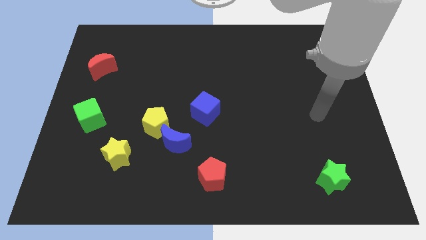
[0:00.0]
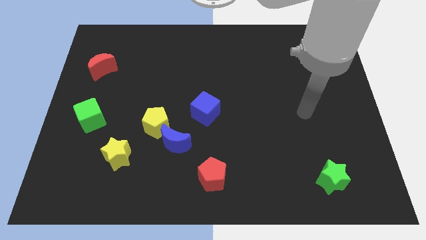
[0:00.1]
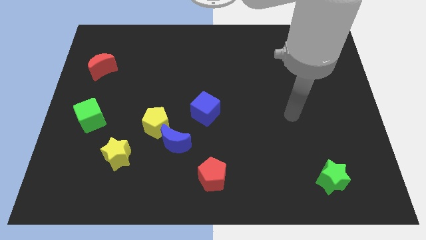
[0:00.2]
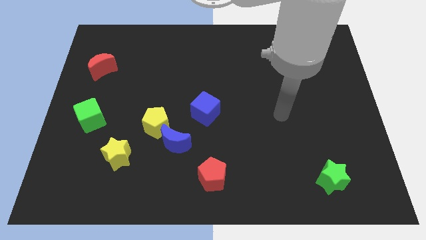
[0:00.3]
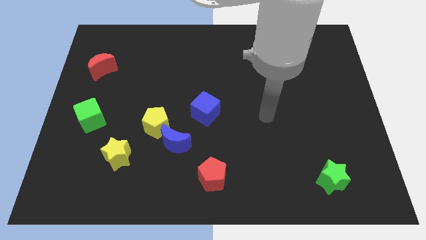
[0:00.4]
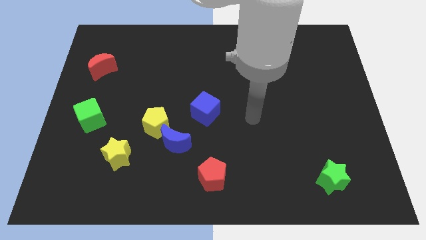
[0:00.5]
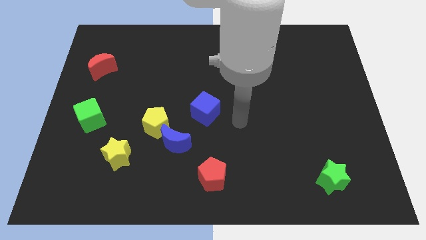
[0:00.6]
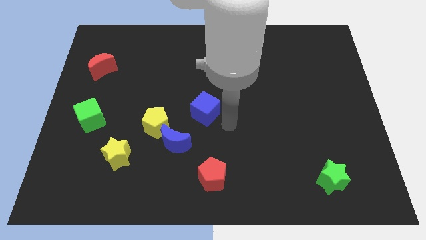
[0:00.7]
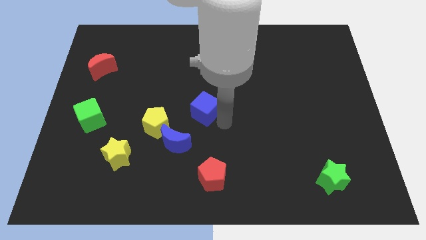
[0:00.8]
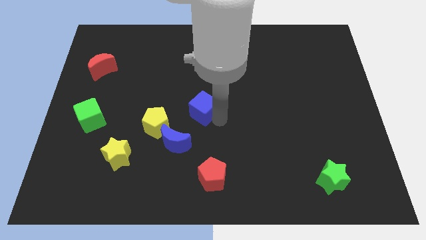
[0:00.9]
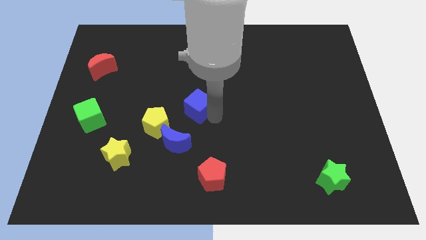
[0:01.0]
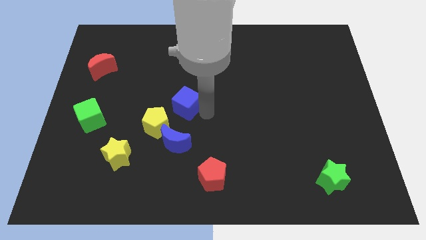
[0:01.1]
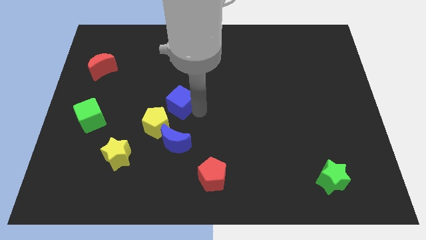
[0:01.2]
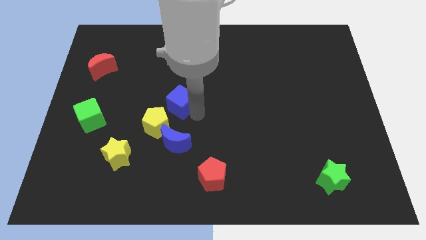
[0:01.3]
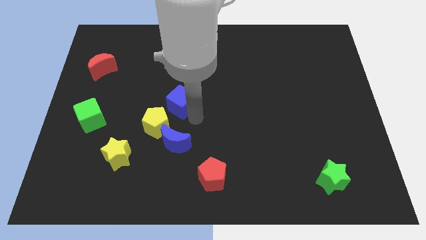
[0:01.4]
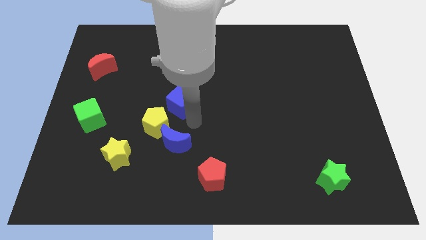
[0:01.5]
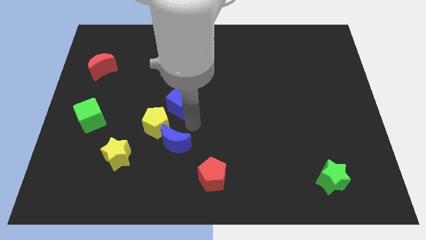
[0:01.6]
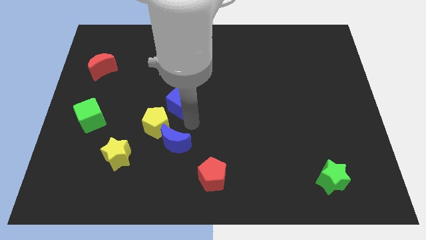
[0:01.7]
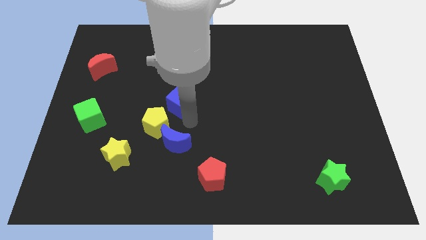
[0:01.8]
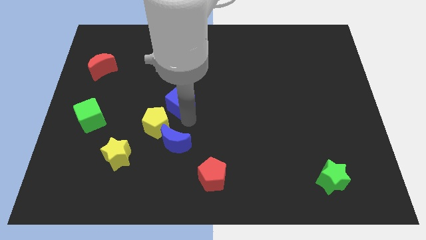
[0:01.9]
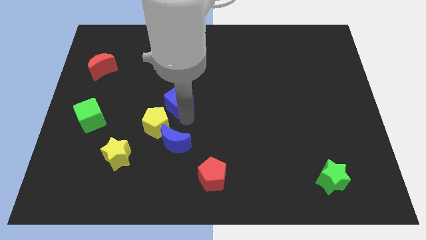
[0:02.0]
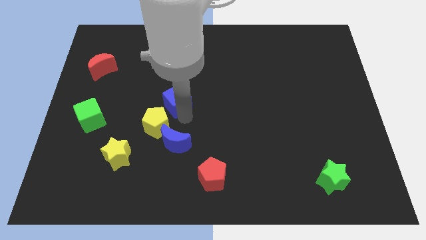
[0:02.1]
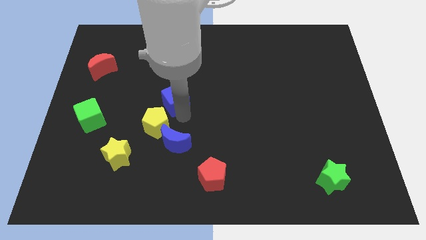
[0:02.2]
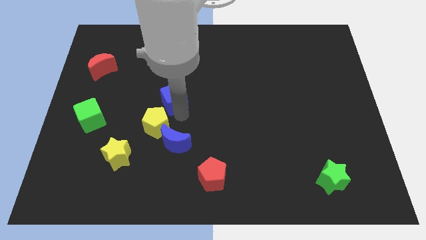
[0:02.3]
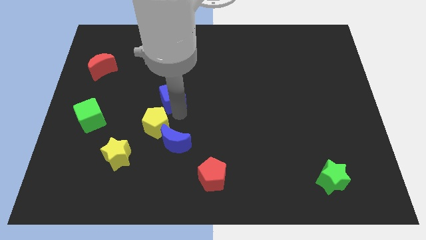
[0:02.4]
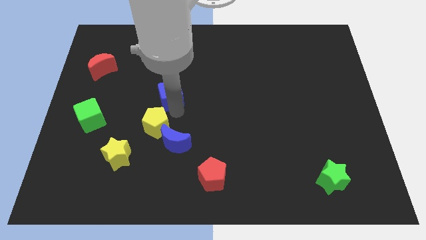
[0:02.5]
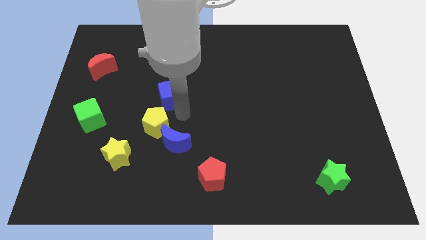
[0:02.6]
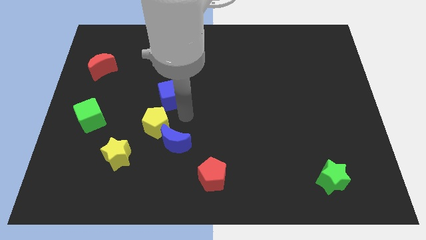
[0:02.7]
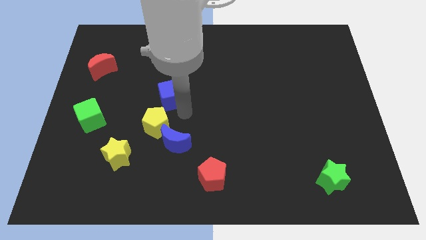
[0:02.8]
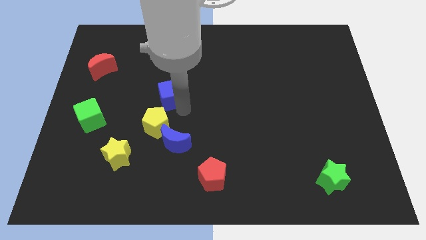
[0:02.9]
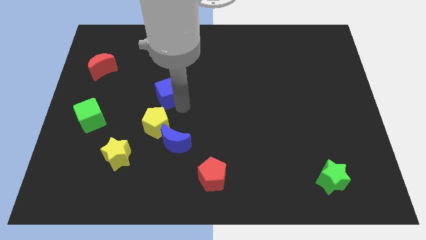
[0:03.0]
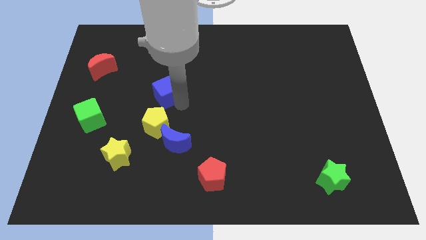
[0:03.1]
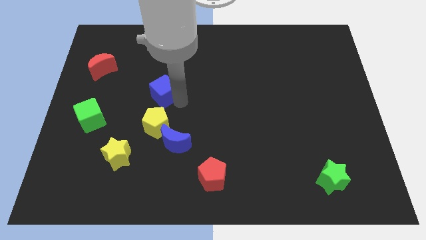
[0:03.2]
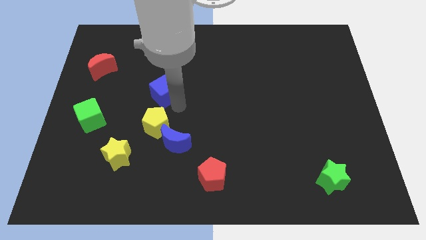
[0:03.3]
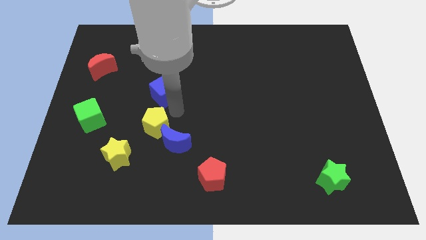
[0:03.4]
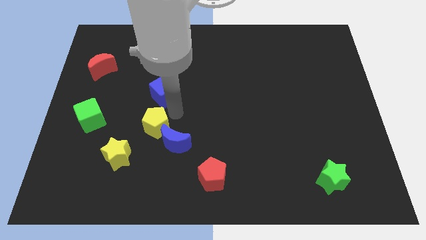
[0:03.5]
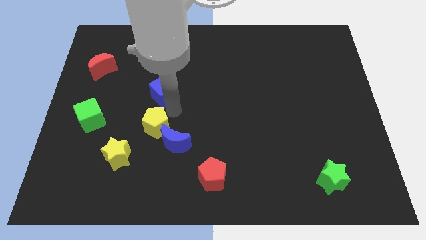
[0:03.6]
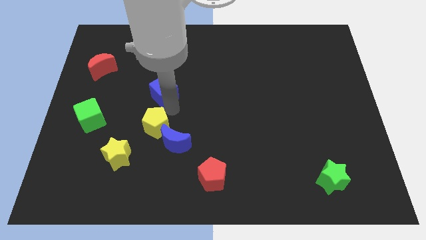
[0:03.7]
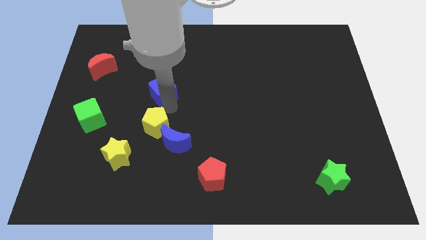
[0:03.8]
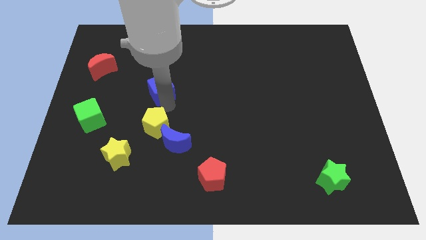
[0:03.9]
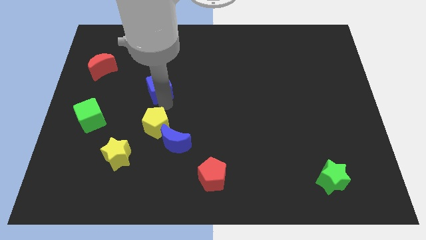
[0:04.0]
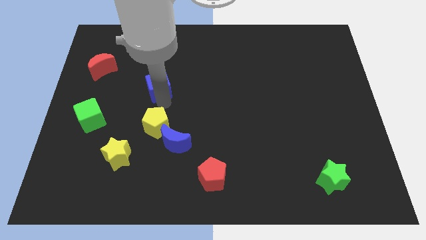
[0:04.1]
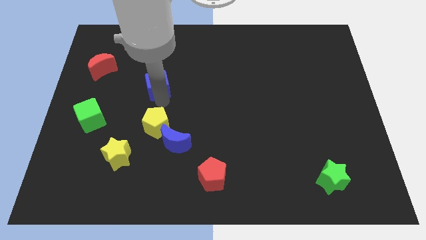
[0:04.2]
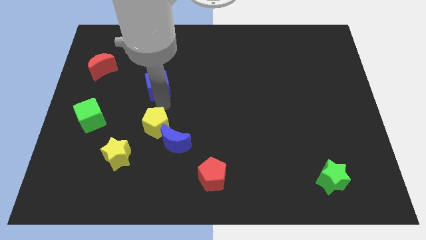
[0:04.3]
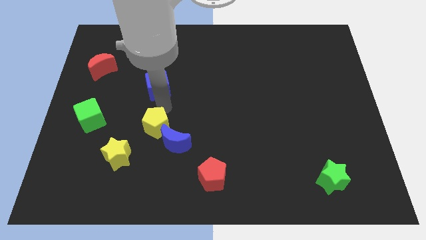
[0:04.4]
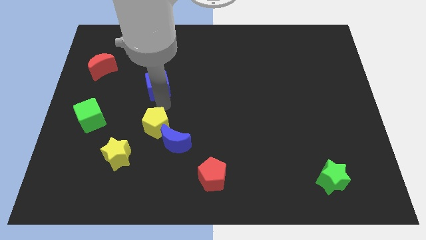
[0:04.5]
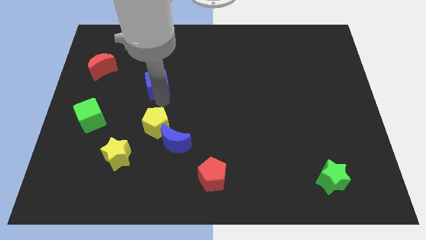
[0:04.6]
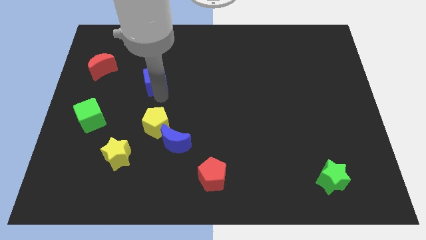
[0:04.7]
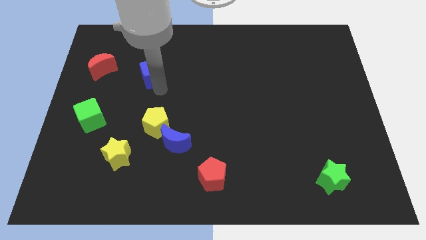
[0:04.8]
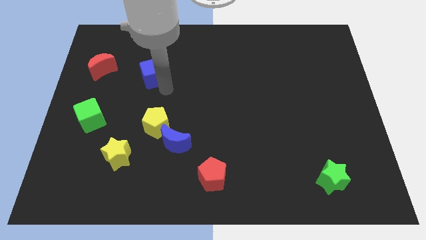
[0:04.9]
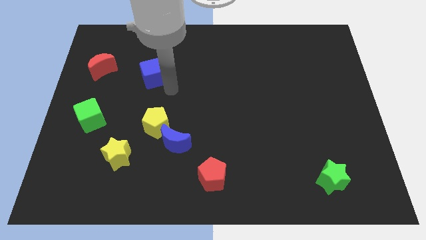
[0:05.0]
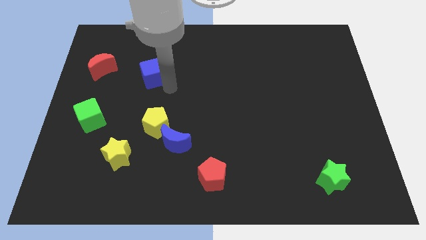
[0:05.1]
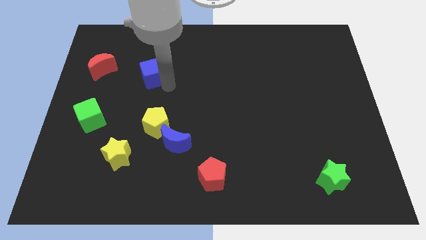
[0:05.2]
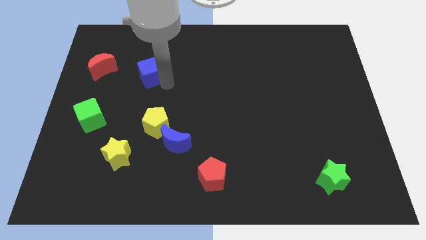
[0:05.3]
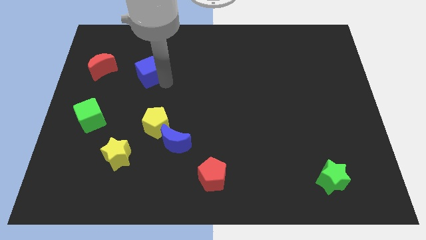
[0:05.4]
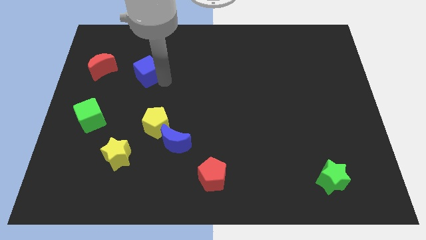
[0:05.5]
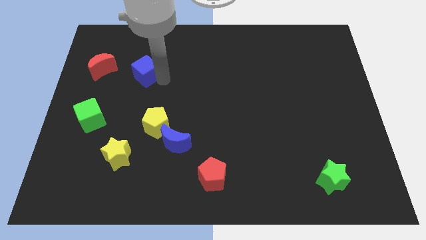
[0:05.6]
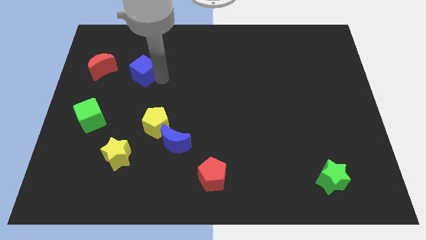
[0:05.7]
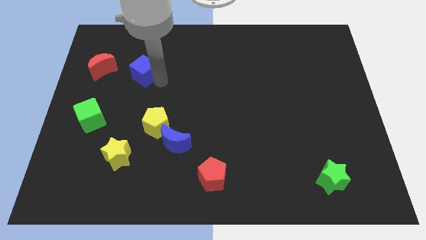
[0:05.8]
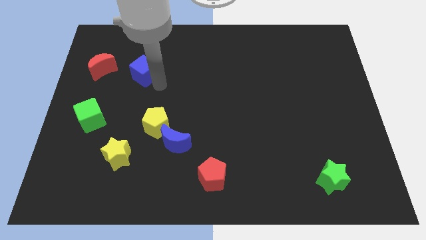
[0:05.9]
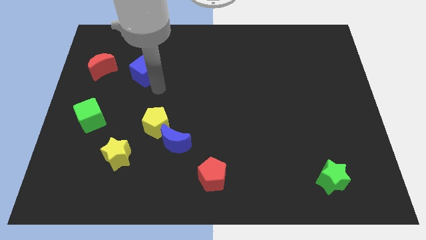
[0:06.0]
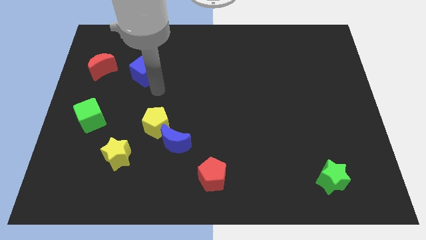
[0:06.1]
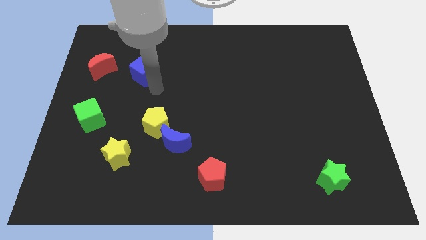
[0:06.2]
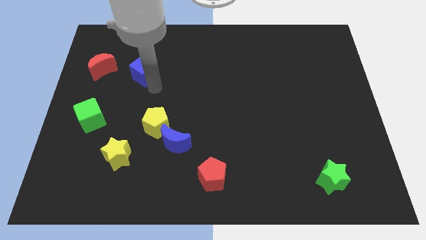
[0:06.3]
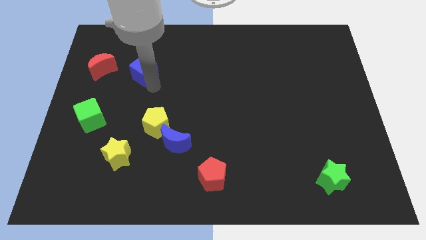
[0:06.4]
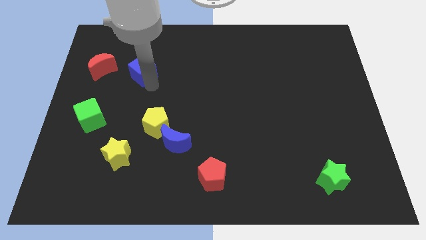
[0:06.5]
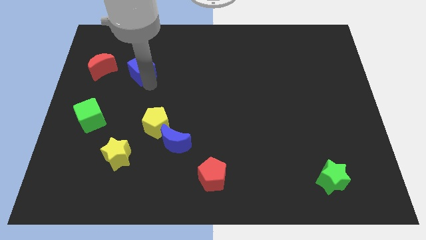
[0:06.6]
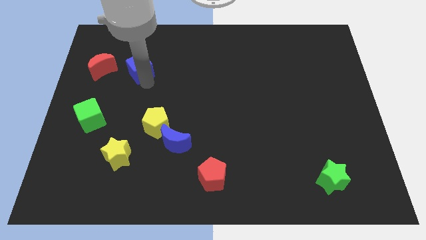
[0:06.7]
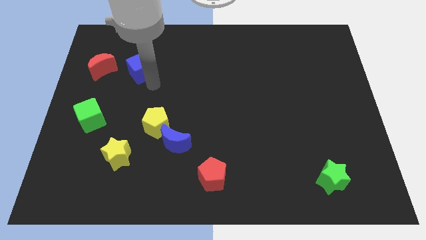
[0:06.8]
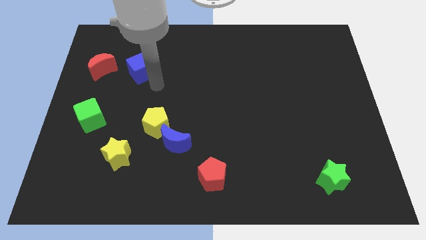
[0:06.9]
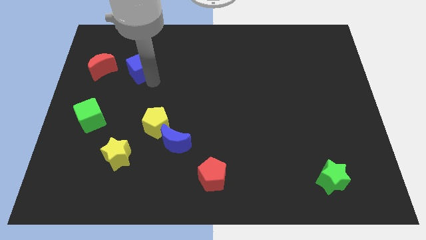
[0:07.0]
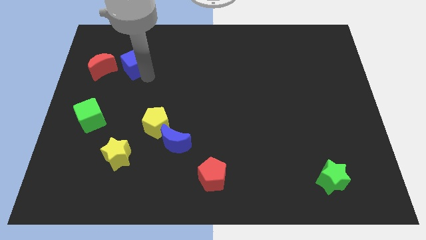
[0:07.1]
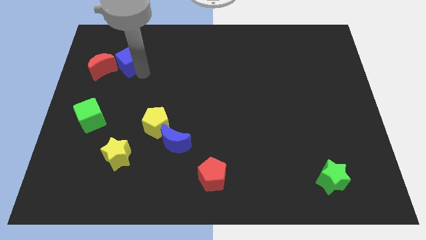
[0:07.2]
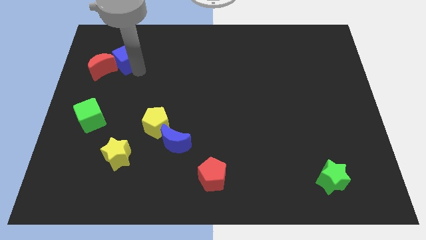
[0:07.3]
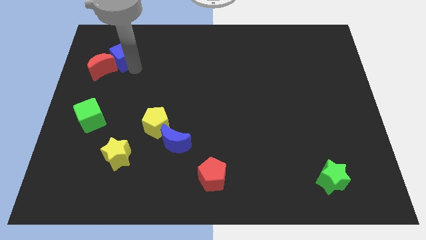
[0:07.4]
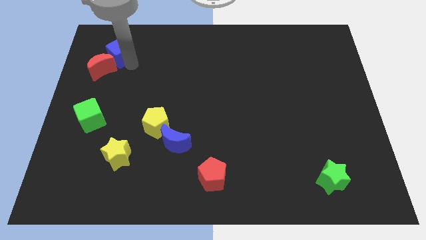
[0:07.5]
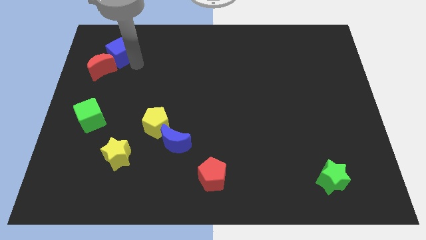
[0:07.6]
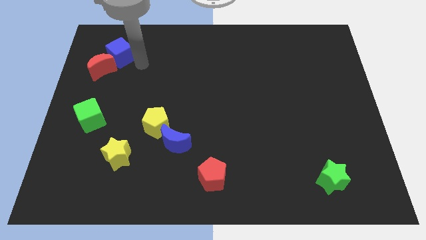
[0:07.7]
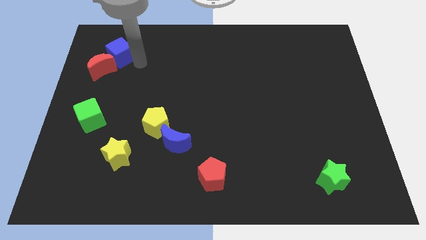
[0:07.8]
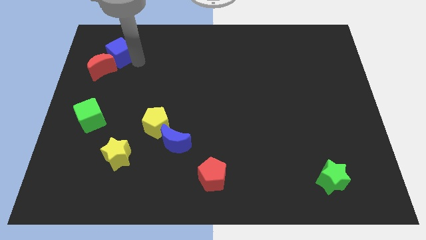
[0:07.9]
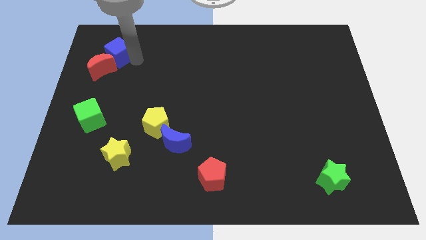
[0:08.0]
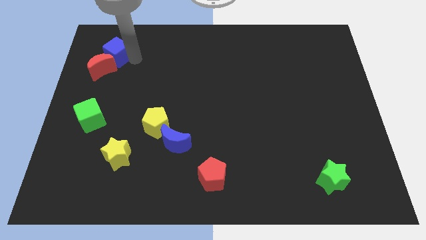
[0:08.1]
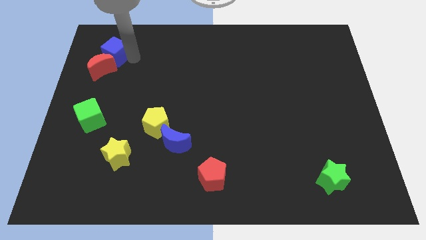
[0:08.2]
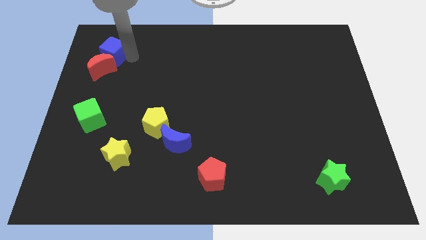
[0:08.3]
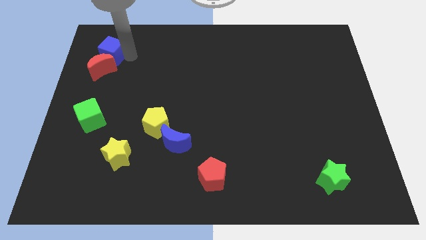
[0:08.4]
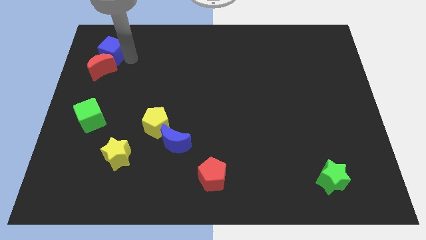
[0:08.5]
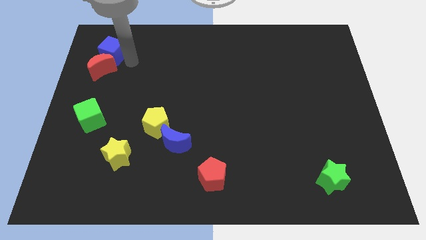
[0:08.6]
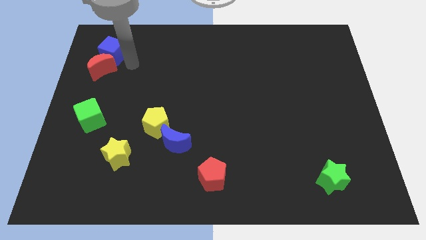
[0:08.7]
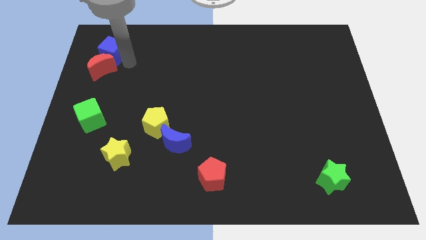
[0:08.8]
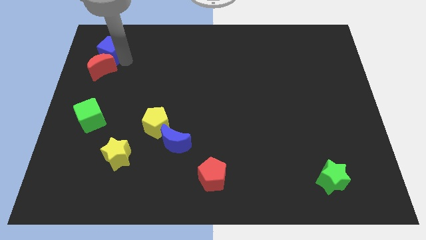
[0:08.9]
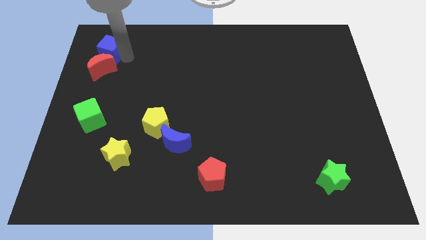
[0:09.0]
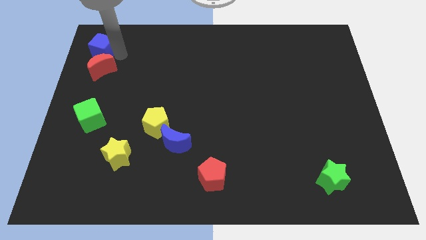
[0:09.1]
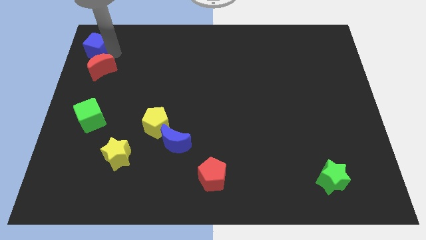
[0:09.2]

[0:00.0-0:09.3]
put the blue cube to the upper left corner
